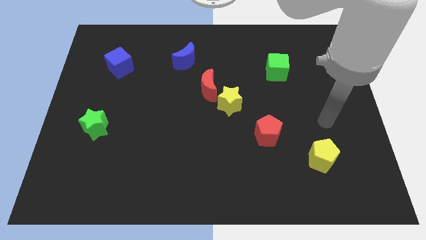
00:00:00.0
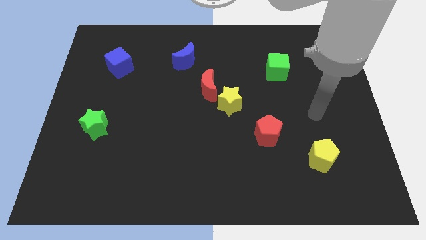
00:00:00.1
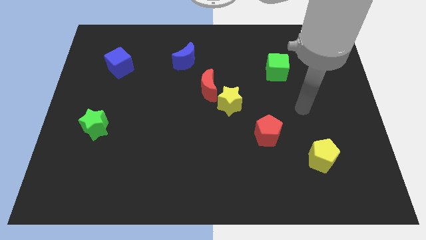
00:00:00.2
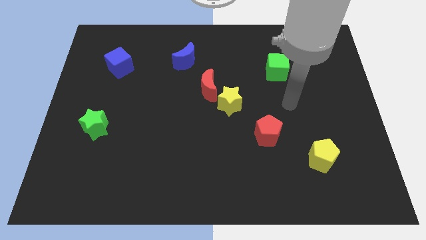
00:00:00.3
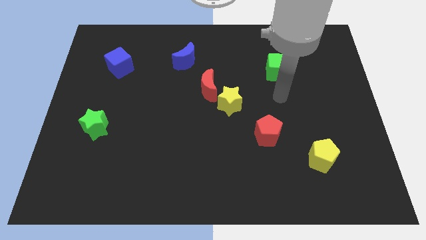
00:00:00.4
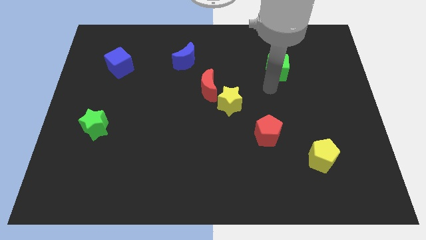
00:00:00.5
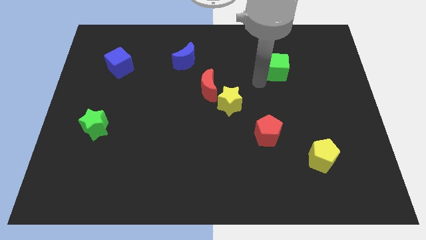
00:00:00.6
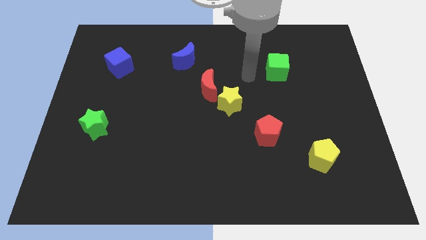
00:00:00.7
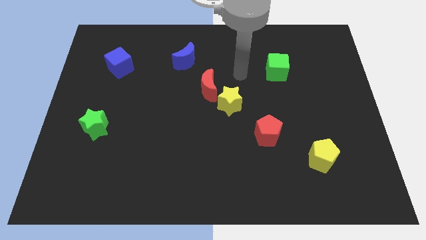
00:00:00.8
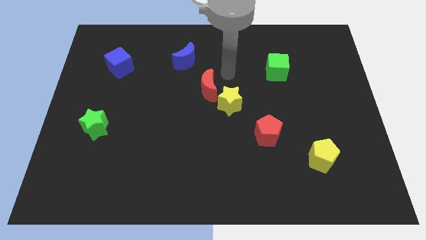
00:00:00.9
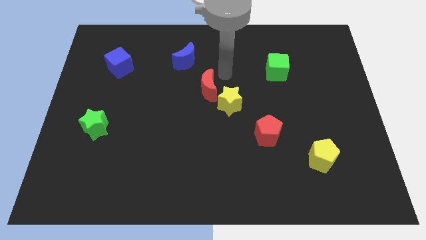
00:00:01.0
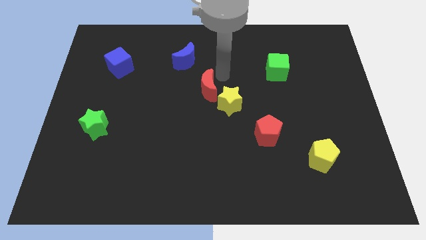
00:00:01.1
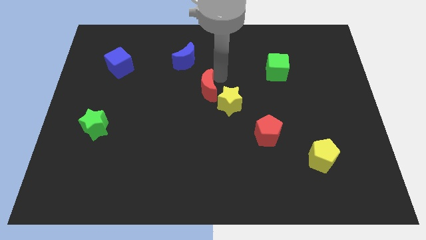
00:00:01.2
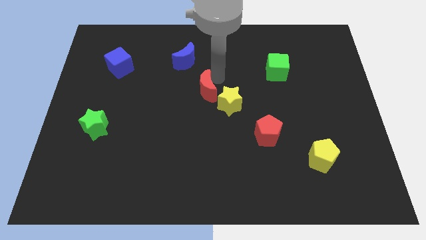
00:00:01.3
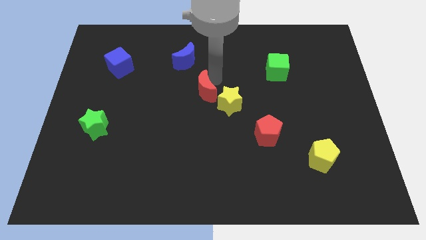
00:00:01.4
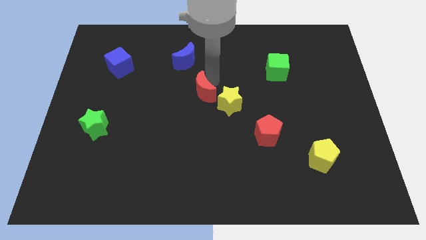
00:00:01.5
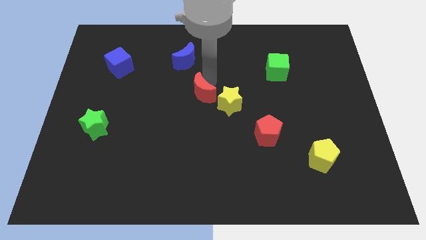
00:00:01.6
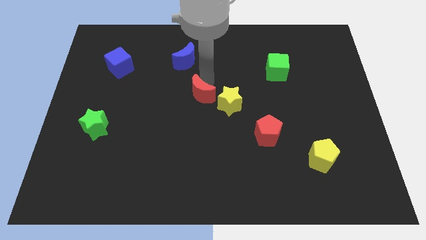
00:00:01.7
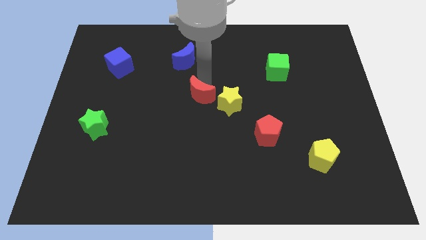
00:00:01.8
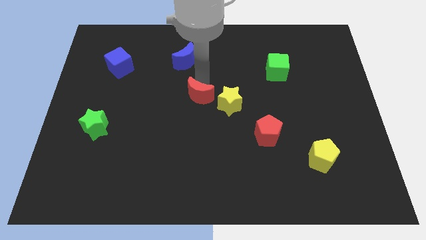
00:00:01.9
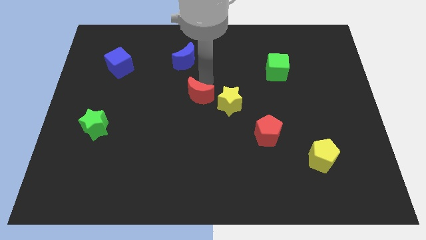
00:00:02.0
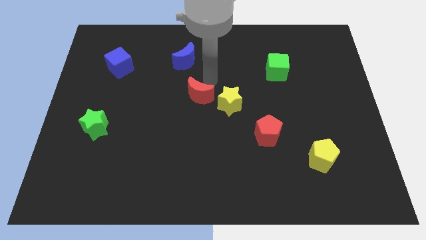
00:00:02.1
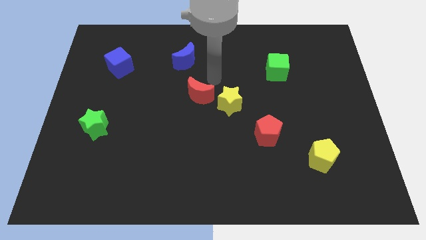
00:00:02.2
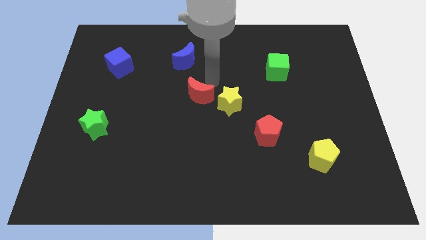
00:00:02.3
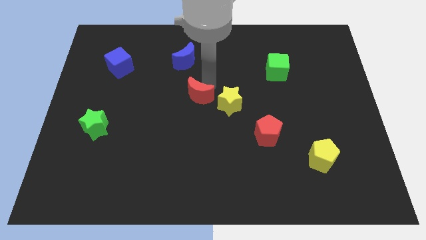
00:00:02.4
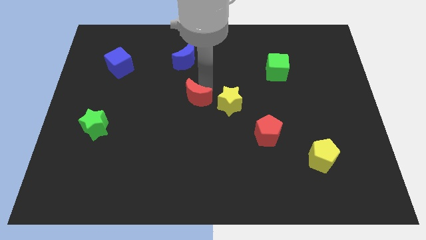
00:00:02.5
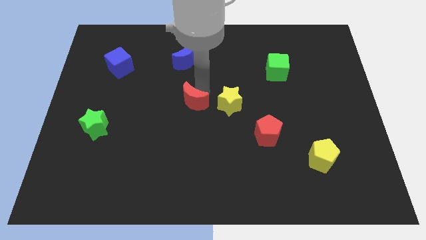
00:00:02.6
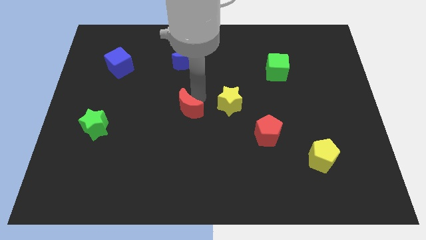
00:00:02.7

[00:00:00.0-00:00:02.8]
slightly slide the red moon downwards and then to the left

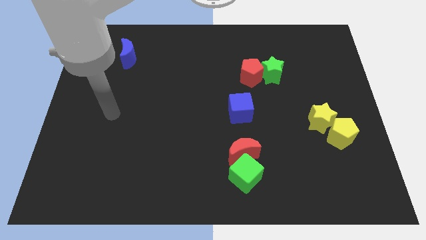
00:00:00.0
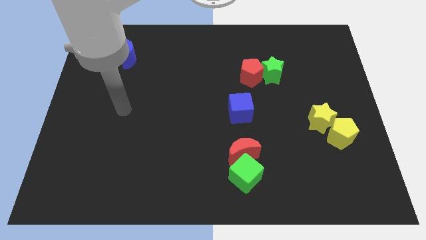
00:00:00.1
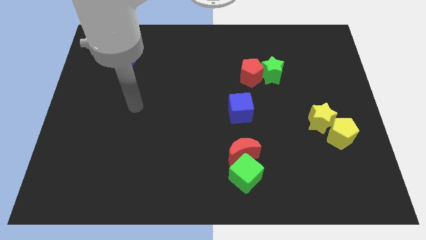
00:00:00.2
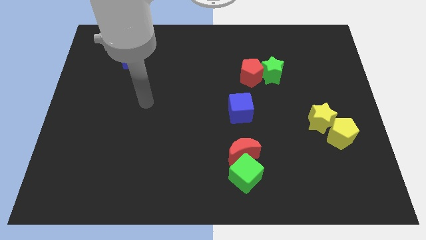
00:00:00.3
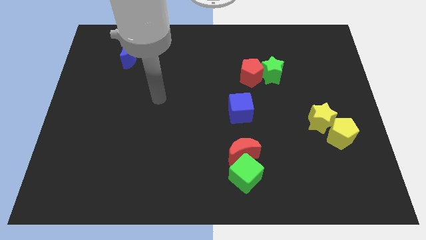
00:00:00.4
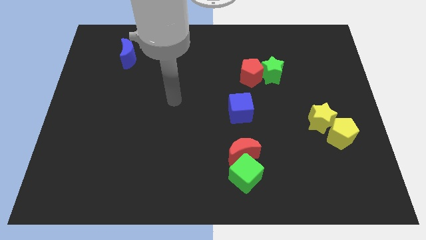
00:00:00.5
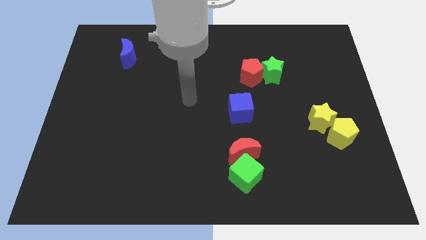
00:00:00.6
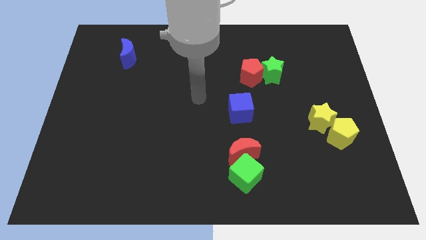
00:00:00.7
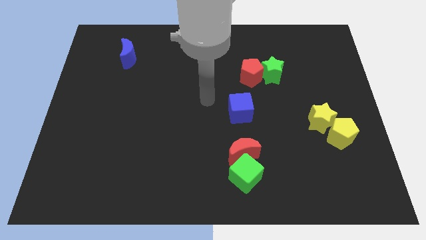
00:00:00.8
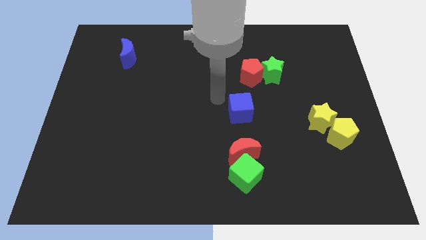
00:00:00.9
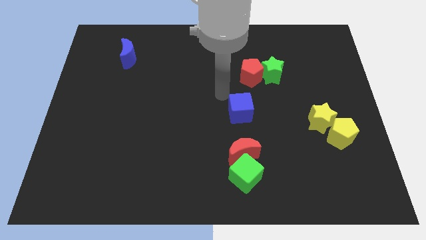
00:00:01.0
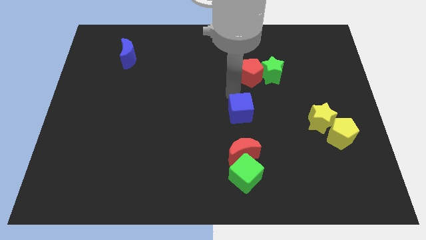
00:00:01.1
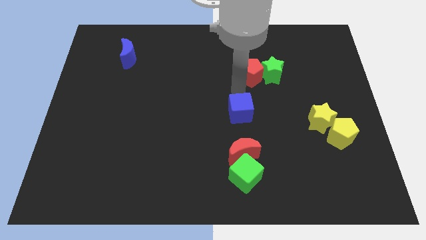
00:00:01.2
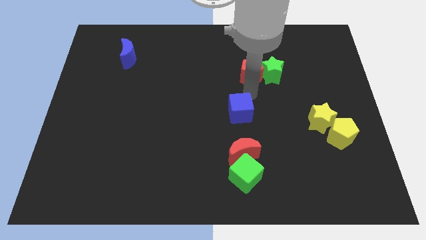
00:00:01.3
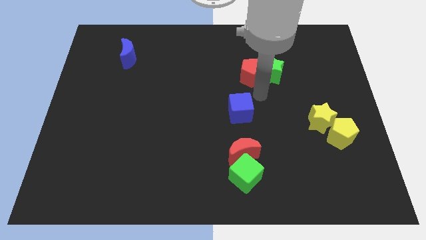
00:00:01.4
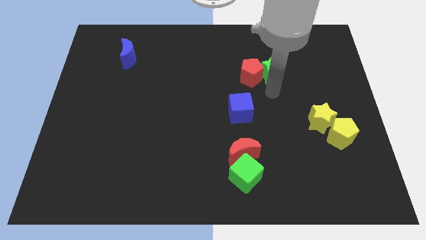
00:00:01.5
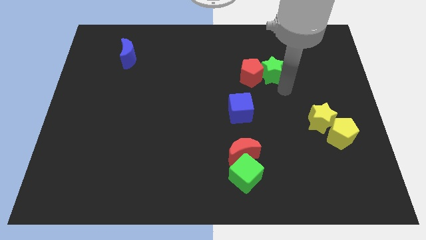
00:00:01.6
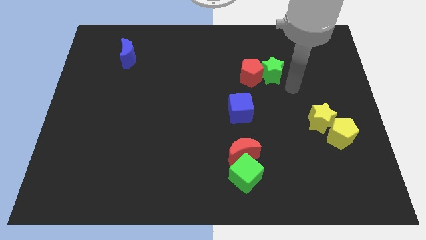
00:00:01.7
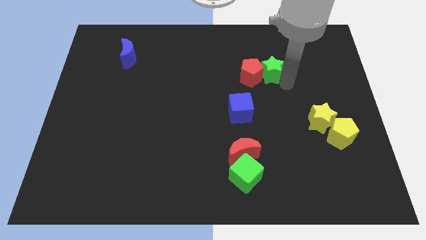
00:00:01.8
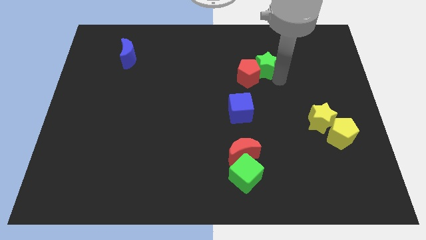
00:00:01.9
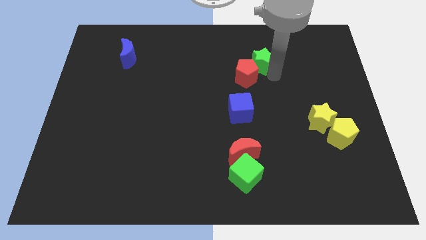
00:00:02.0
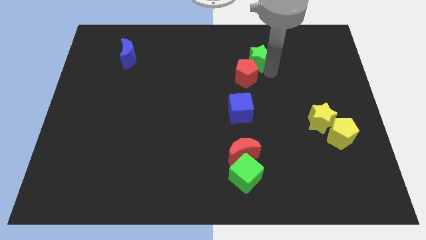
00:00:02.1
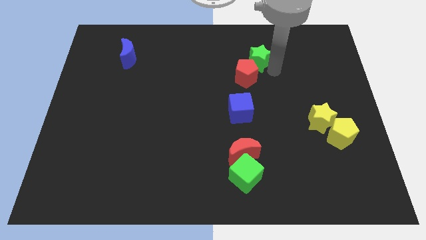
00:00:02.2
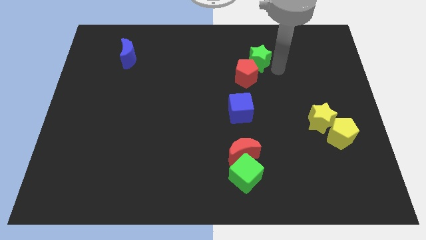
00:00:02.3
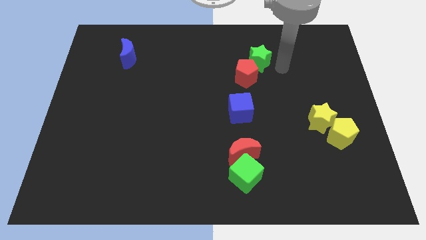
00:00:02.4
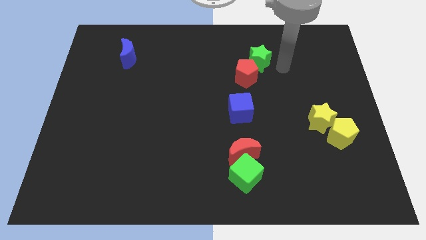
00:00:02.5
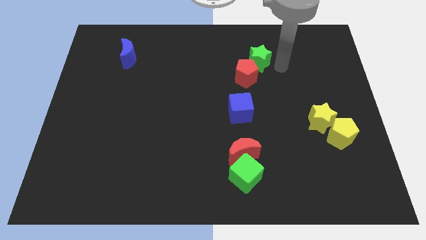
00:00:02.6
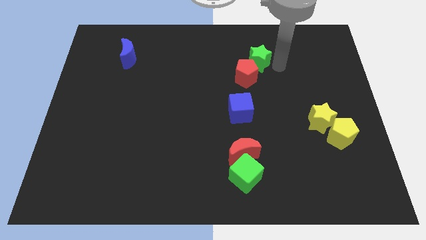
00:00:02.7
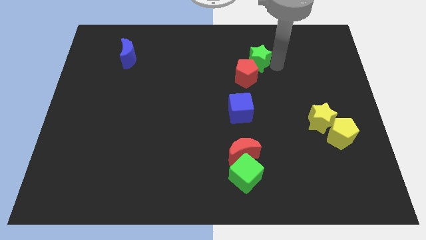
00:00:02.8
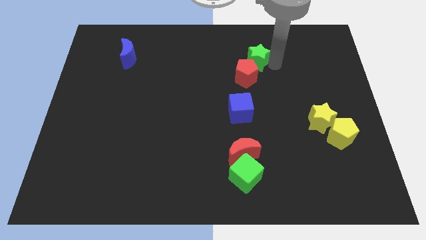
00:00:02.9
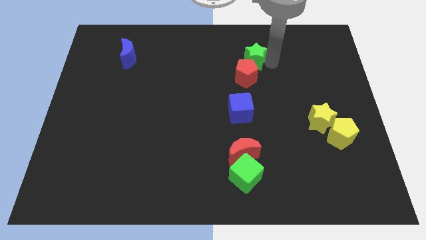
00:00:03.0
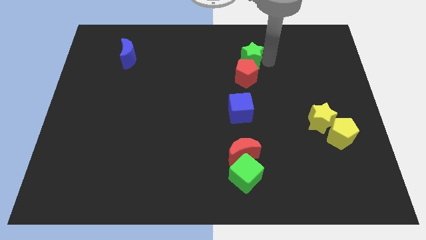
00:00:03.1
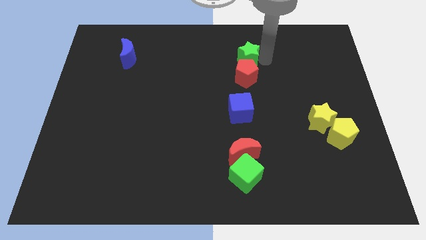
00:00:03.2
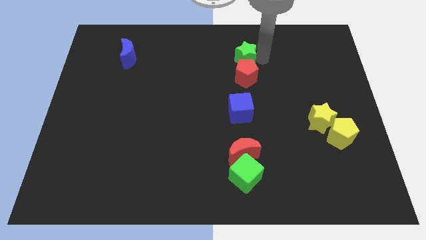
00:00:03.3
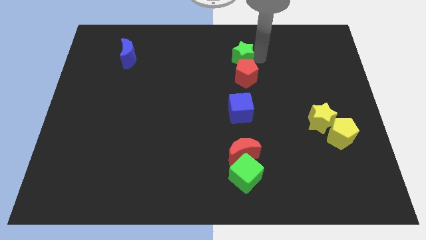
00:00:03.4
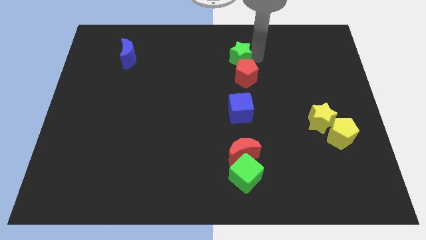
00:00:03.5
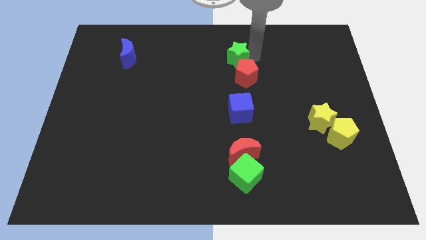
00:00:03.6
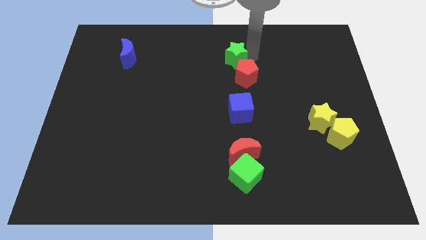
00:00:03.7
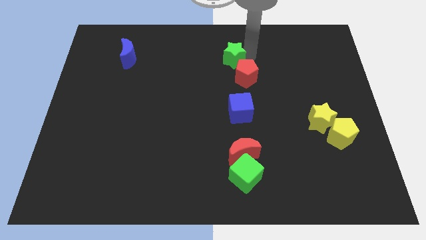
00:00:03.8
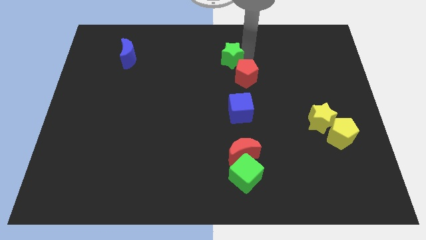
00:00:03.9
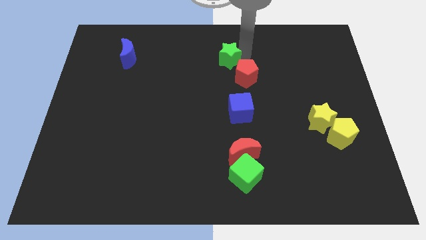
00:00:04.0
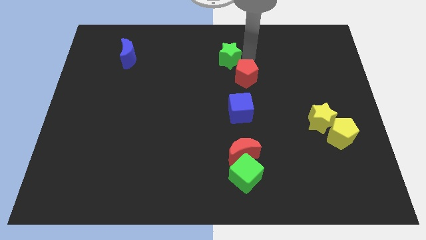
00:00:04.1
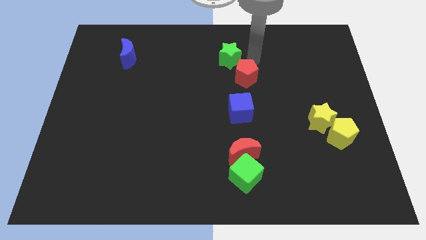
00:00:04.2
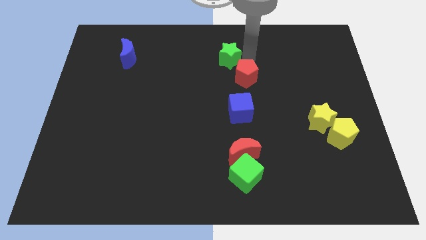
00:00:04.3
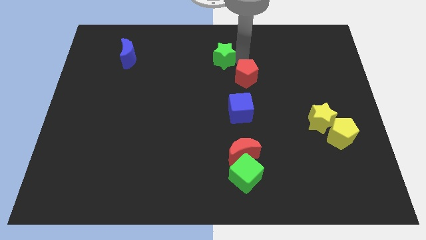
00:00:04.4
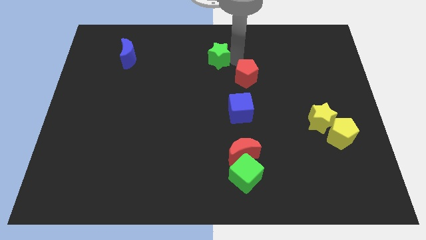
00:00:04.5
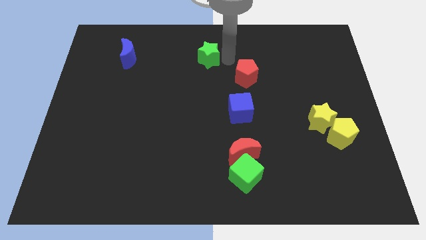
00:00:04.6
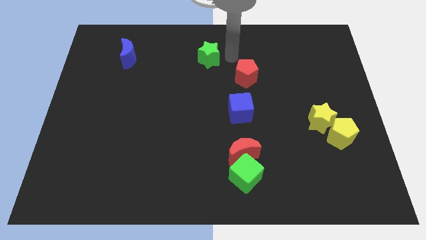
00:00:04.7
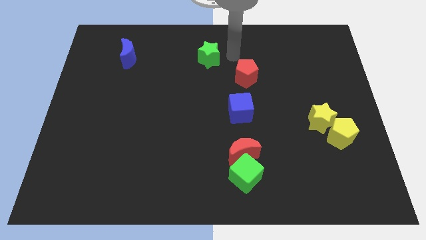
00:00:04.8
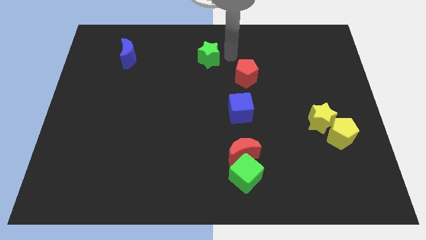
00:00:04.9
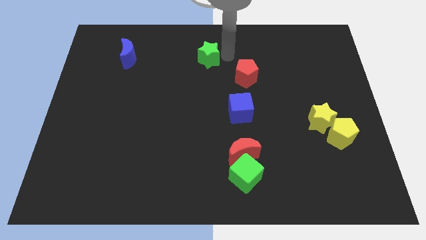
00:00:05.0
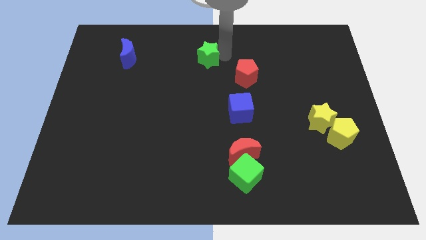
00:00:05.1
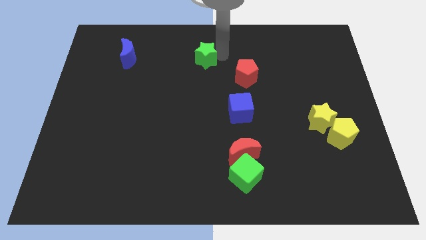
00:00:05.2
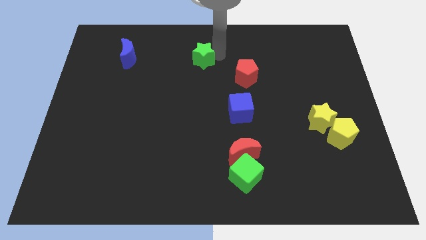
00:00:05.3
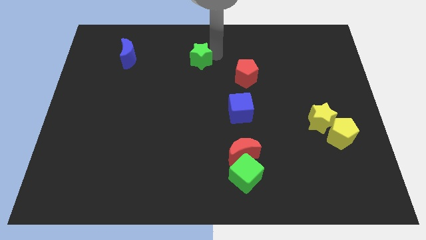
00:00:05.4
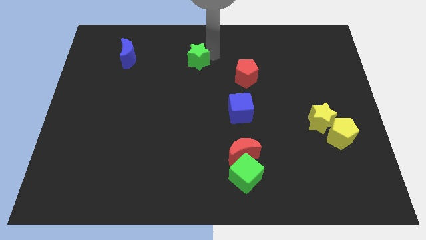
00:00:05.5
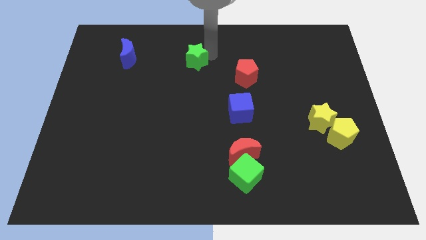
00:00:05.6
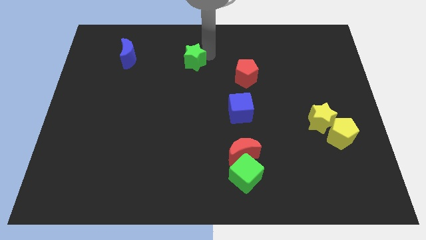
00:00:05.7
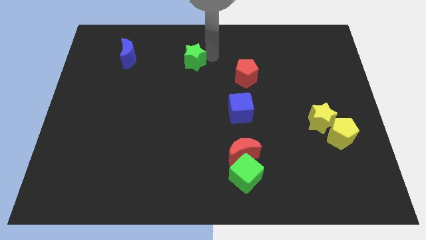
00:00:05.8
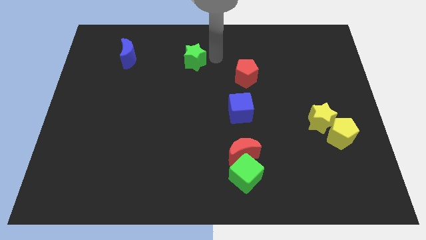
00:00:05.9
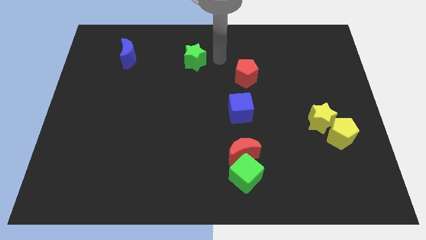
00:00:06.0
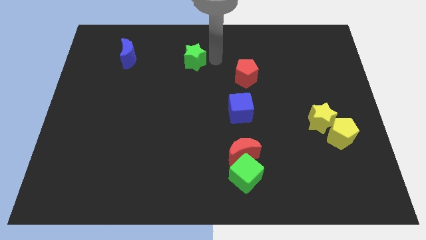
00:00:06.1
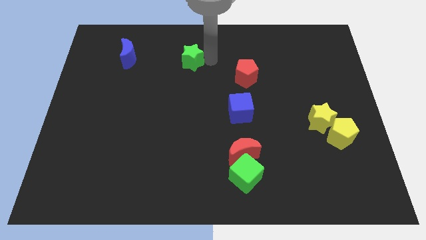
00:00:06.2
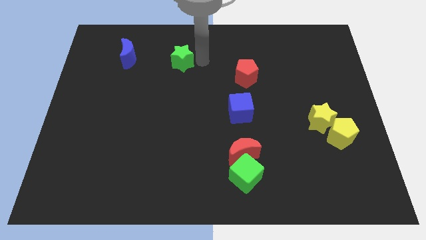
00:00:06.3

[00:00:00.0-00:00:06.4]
slide the green star left
